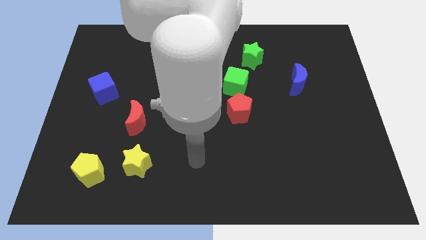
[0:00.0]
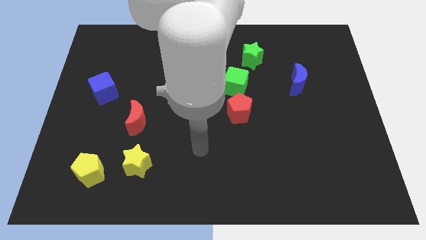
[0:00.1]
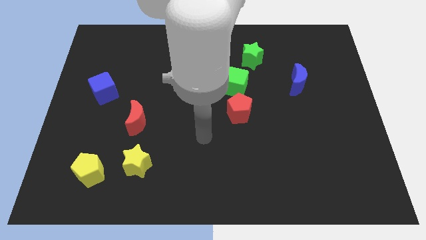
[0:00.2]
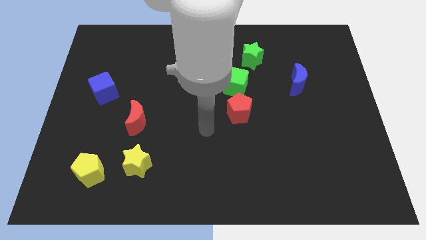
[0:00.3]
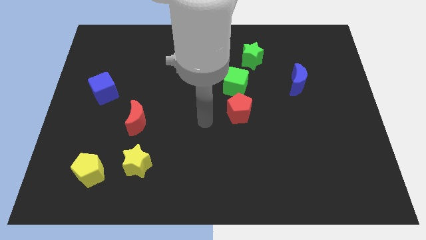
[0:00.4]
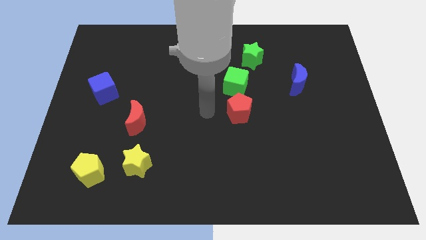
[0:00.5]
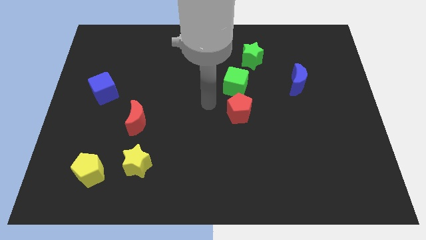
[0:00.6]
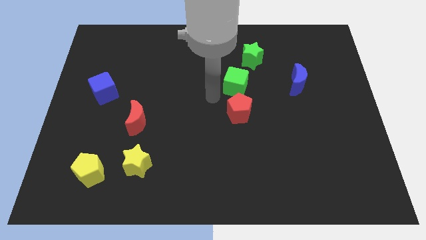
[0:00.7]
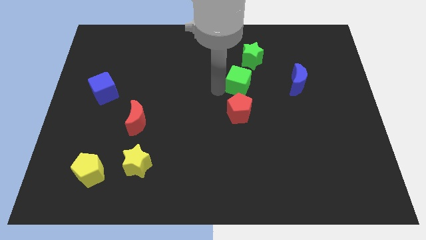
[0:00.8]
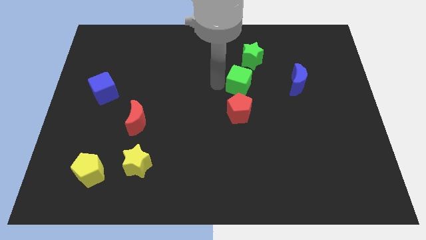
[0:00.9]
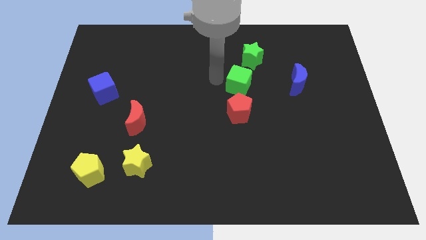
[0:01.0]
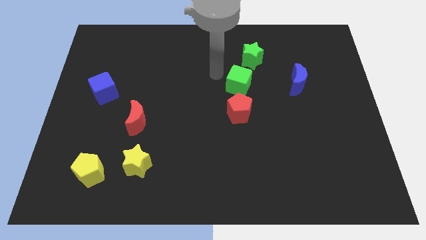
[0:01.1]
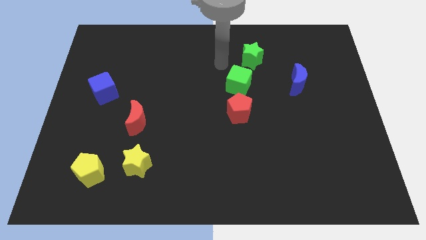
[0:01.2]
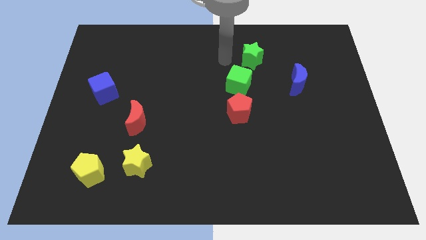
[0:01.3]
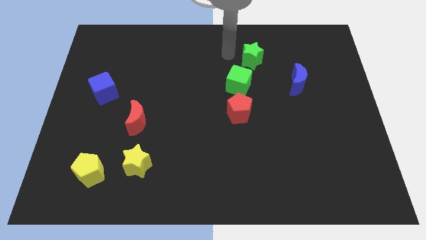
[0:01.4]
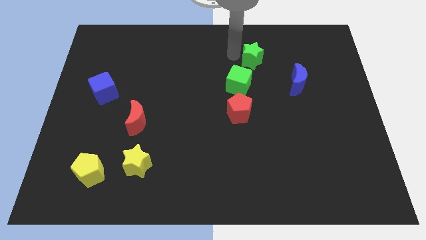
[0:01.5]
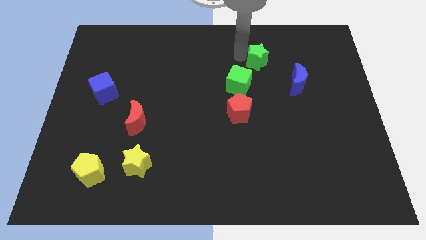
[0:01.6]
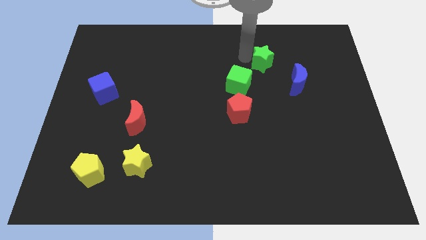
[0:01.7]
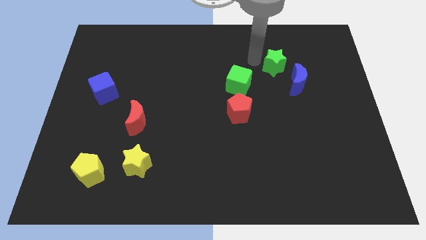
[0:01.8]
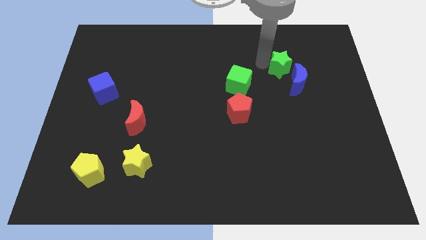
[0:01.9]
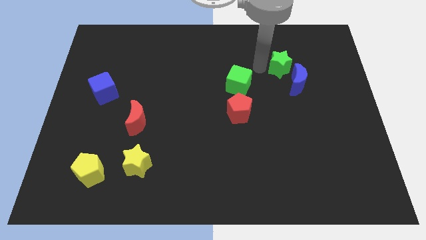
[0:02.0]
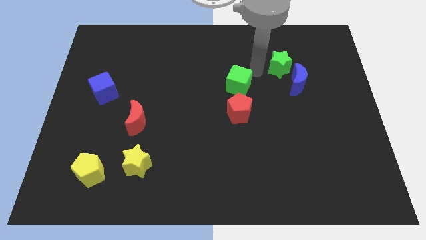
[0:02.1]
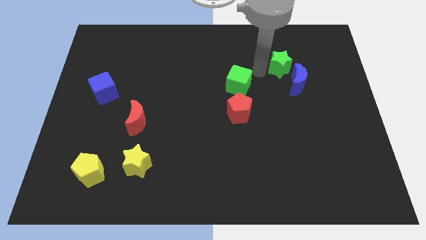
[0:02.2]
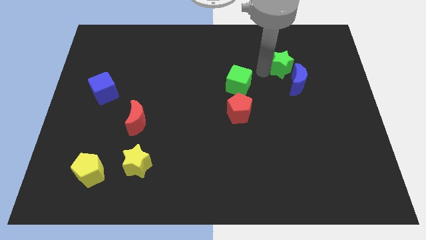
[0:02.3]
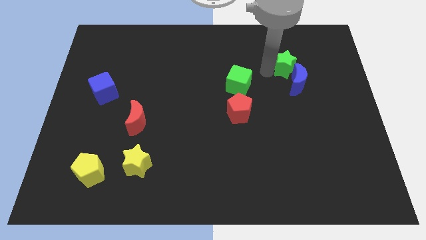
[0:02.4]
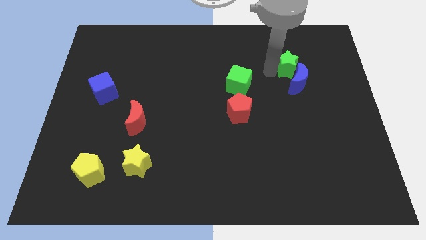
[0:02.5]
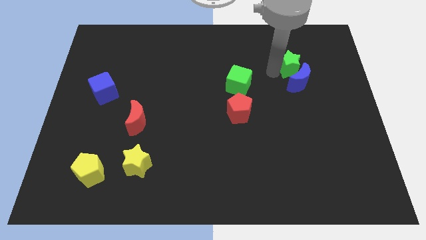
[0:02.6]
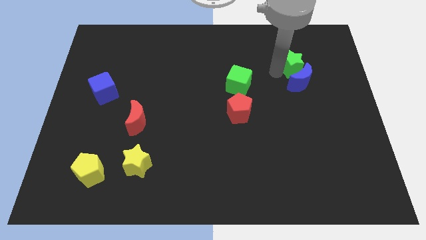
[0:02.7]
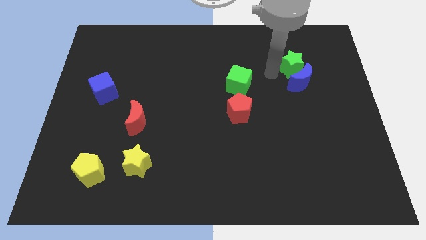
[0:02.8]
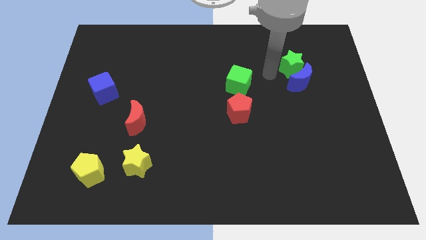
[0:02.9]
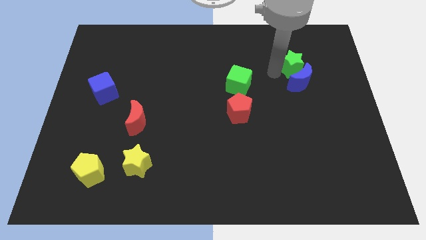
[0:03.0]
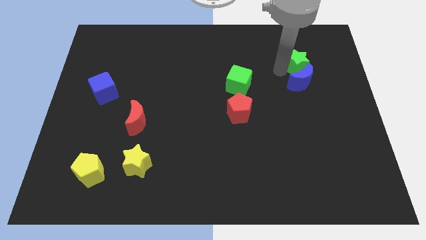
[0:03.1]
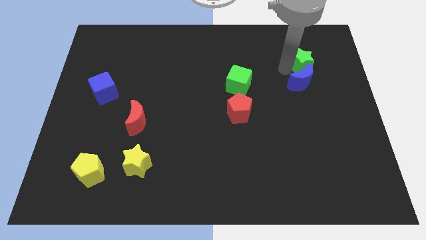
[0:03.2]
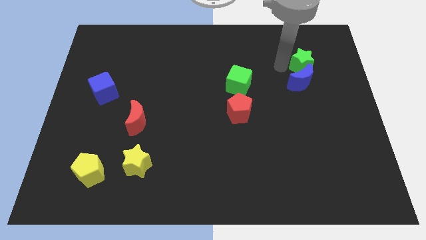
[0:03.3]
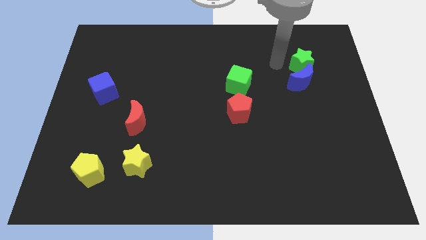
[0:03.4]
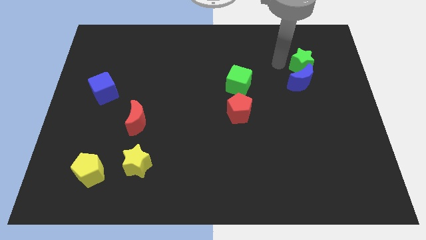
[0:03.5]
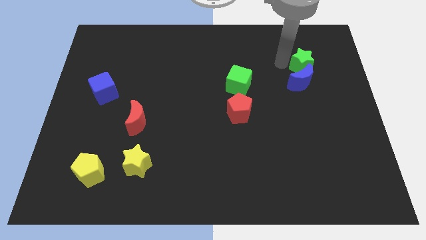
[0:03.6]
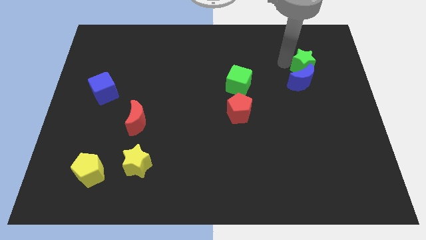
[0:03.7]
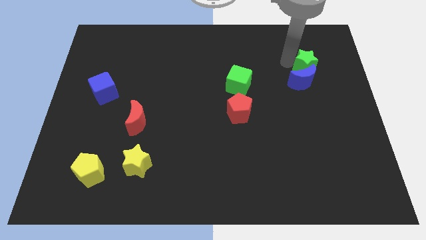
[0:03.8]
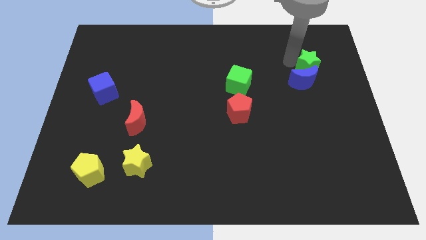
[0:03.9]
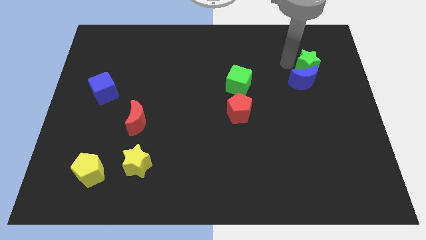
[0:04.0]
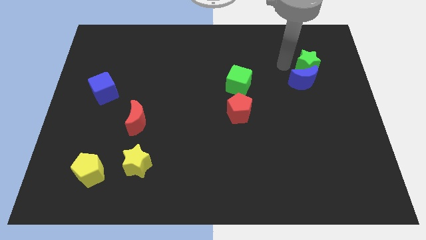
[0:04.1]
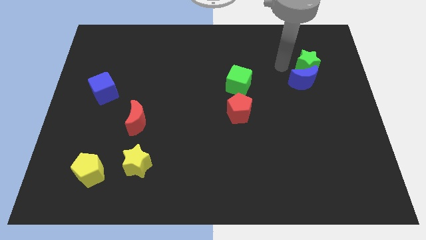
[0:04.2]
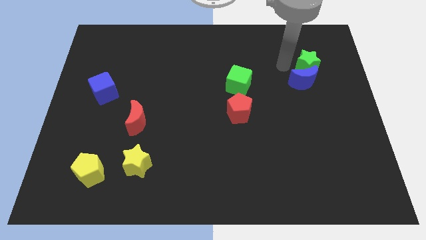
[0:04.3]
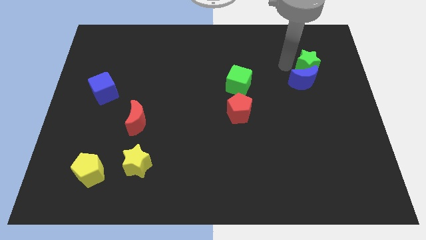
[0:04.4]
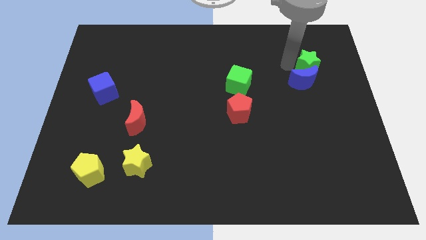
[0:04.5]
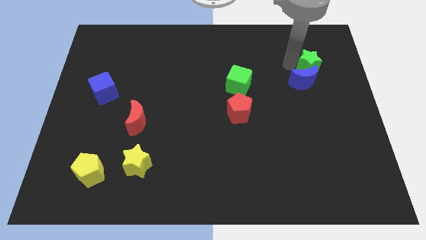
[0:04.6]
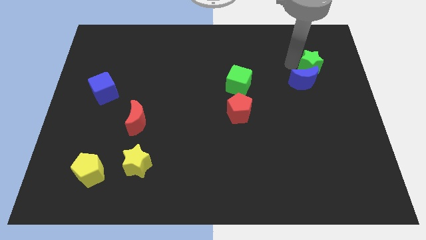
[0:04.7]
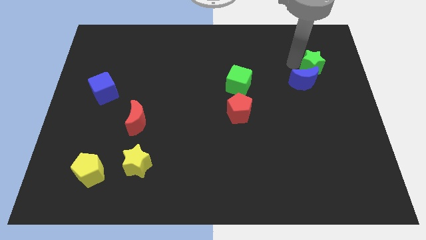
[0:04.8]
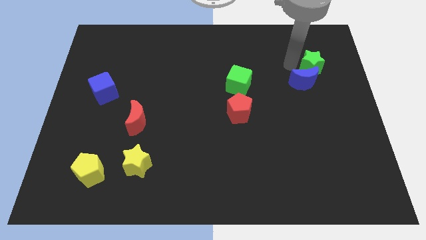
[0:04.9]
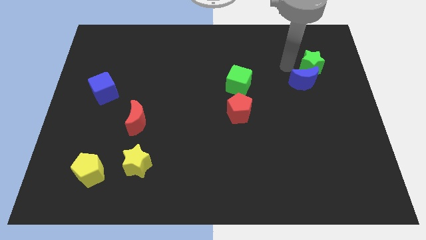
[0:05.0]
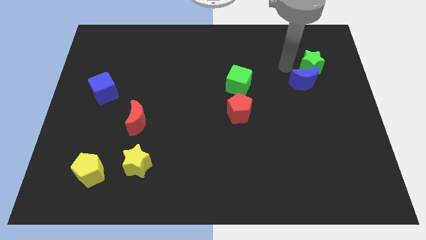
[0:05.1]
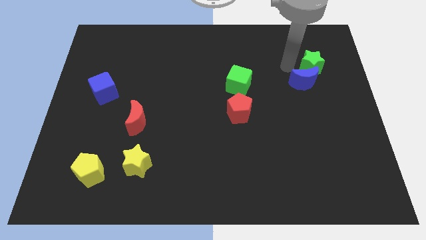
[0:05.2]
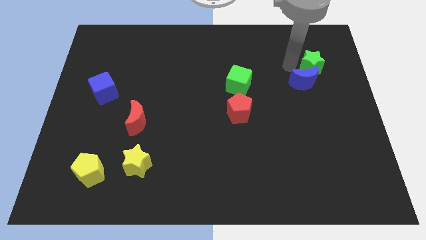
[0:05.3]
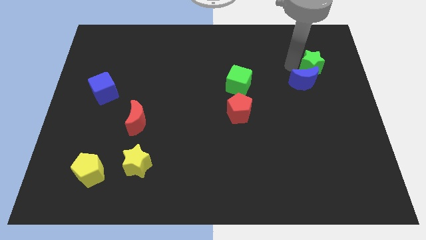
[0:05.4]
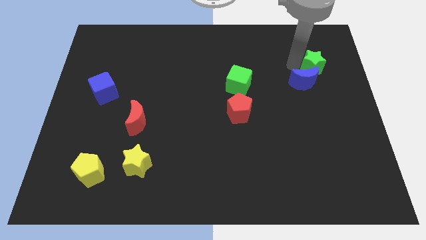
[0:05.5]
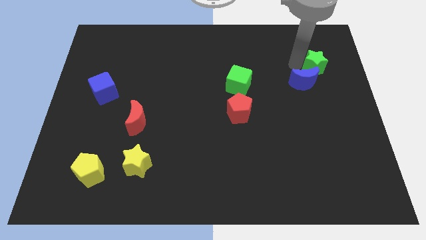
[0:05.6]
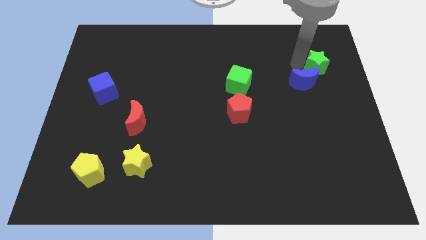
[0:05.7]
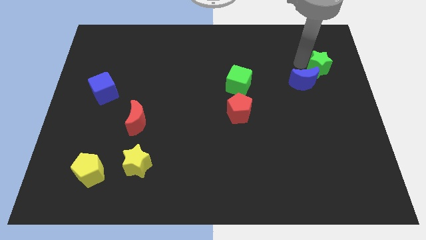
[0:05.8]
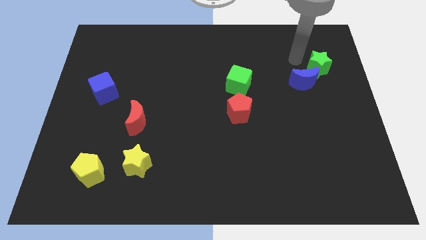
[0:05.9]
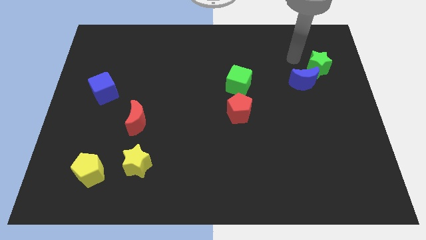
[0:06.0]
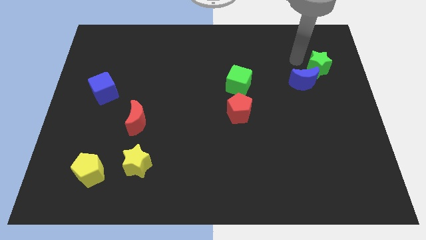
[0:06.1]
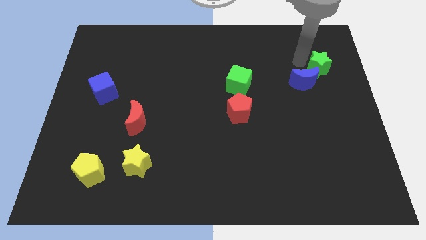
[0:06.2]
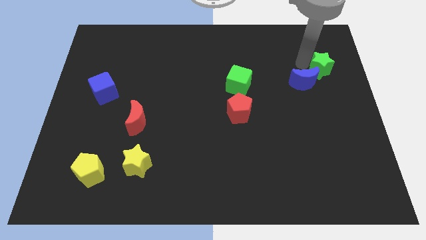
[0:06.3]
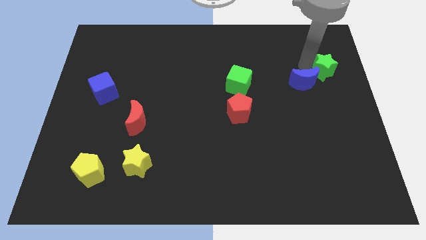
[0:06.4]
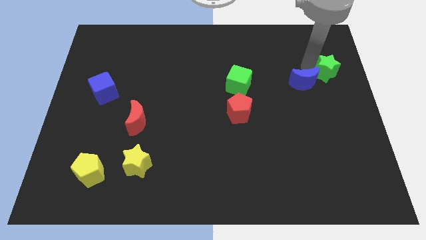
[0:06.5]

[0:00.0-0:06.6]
slide the green star to the right side of the board

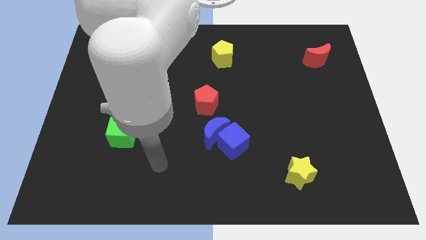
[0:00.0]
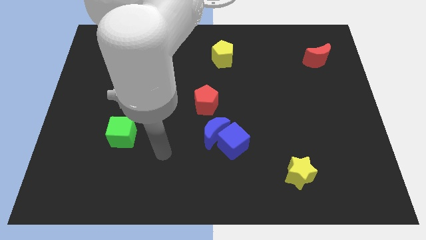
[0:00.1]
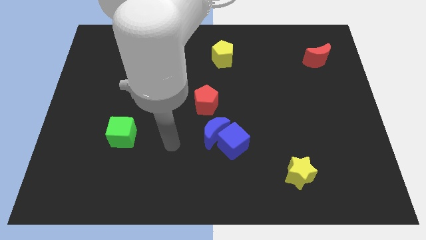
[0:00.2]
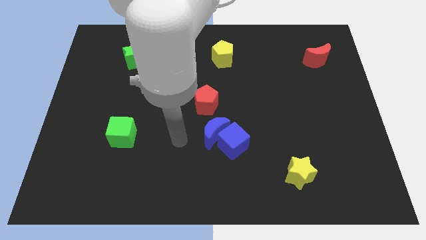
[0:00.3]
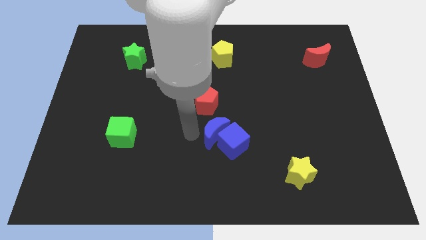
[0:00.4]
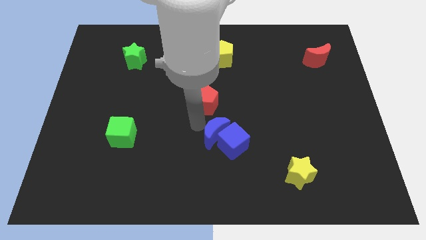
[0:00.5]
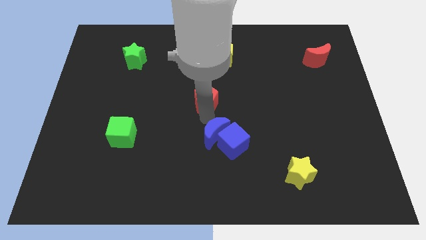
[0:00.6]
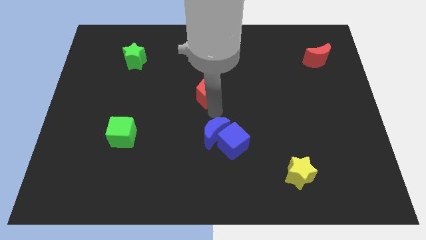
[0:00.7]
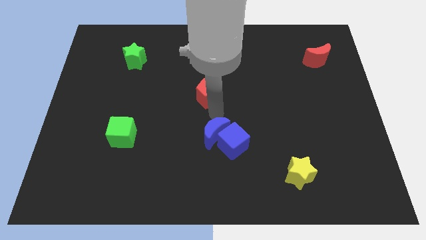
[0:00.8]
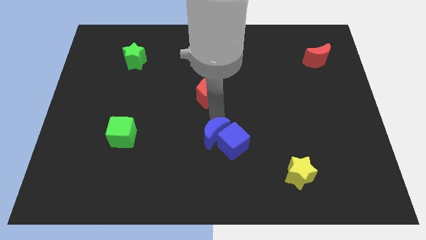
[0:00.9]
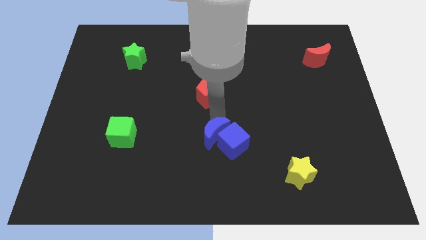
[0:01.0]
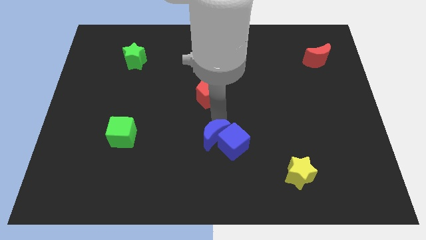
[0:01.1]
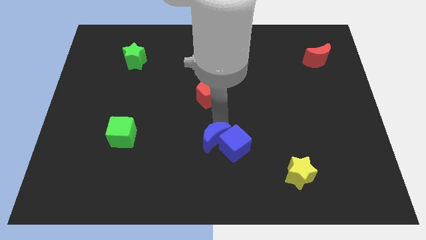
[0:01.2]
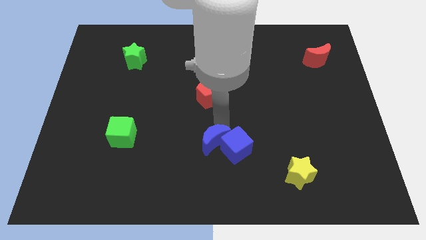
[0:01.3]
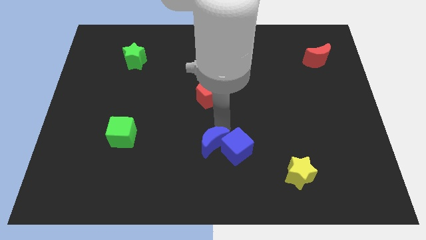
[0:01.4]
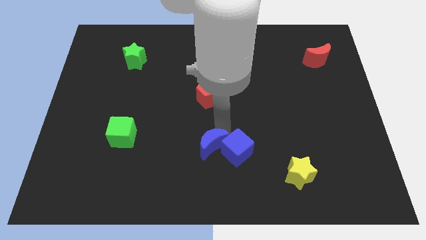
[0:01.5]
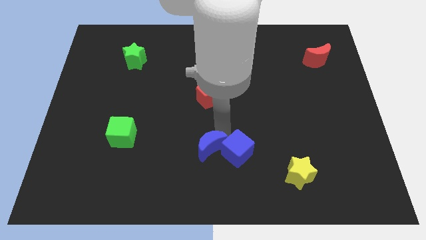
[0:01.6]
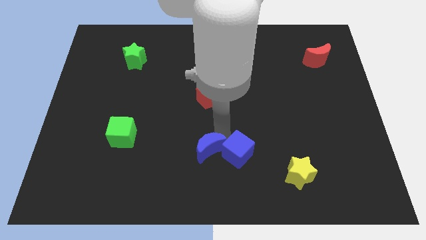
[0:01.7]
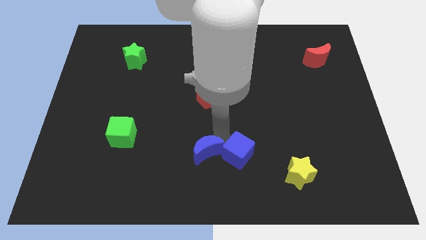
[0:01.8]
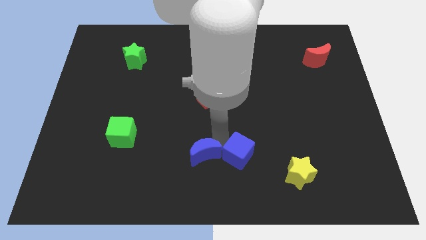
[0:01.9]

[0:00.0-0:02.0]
put the blue moon to the bottom
